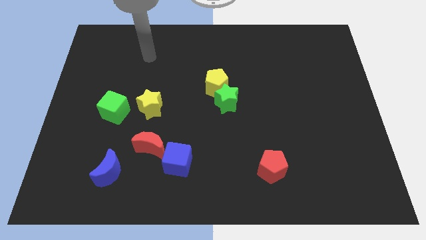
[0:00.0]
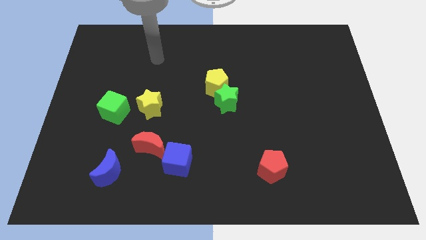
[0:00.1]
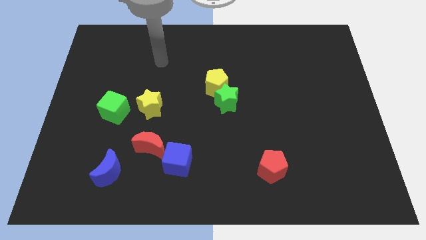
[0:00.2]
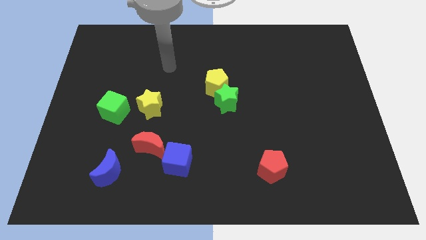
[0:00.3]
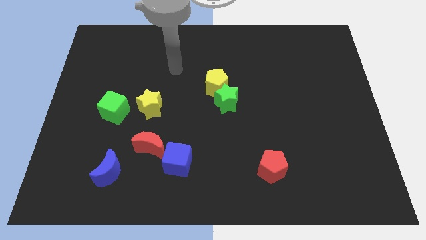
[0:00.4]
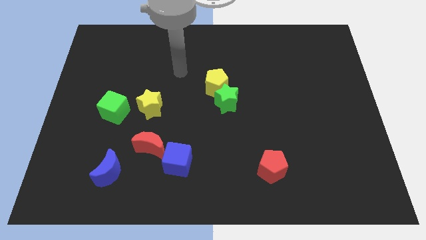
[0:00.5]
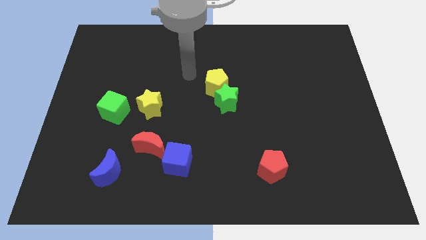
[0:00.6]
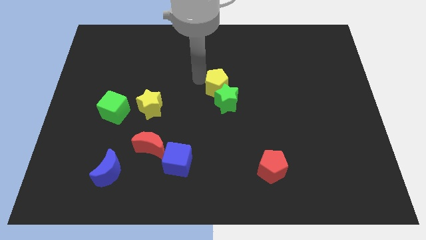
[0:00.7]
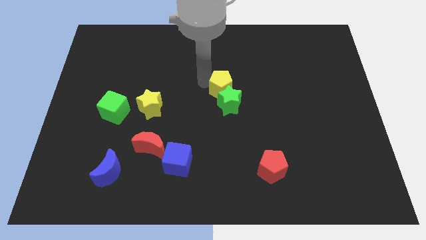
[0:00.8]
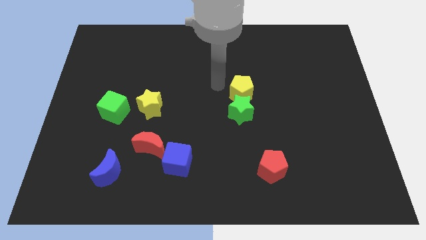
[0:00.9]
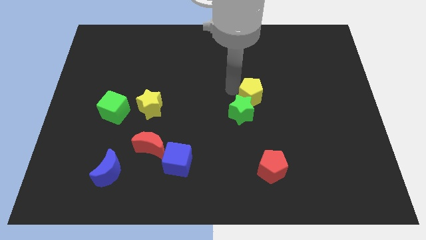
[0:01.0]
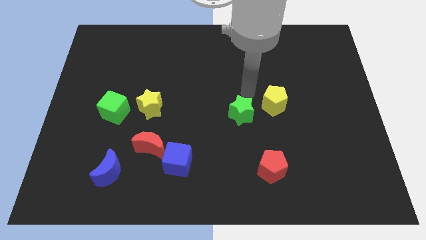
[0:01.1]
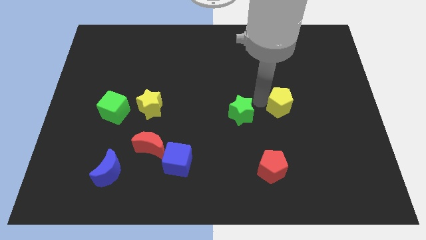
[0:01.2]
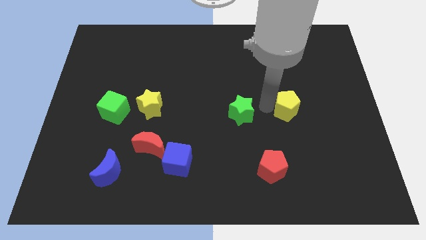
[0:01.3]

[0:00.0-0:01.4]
move the green star away from the yellow pentagon

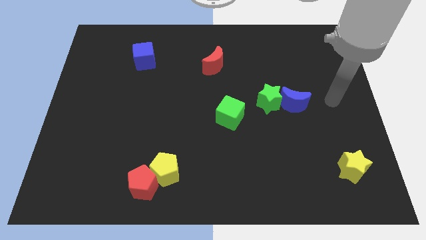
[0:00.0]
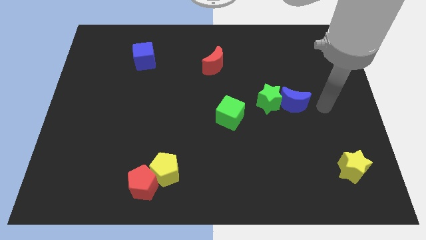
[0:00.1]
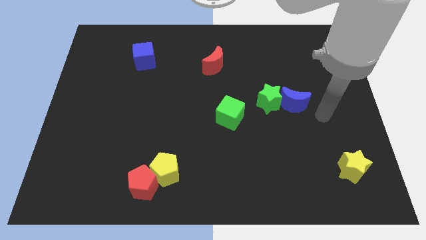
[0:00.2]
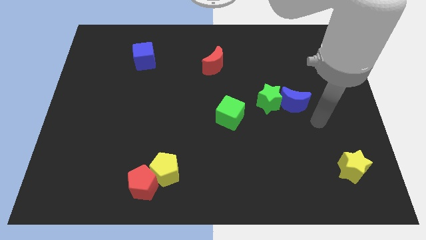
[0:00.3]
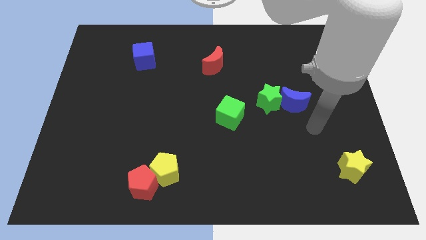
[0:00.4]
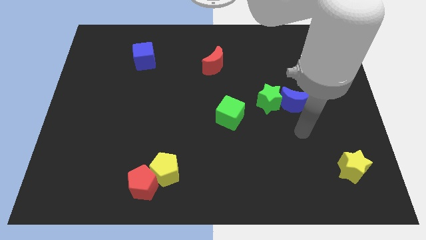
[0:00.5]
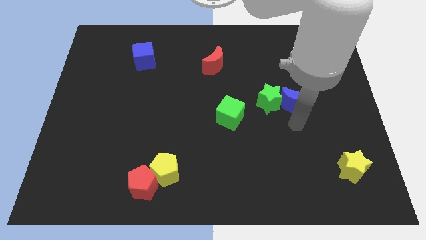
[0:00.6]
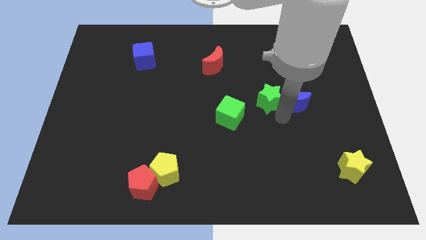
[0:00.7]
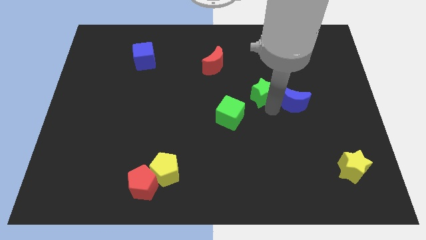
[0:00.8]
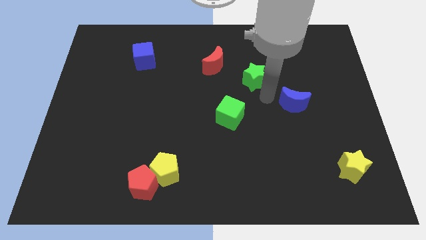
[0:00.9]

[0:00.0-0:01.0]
pull the blue moon apart from the green star

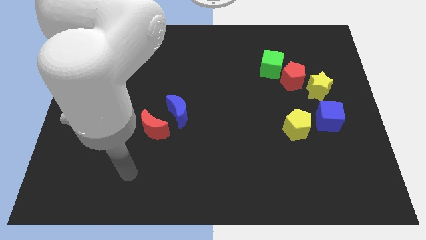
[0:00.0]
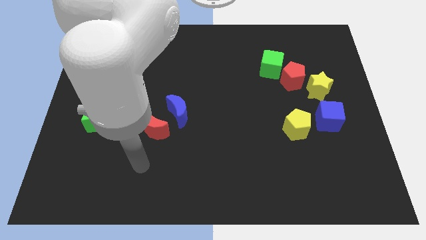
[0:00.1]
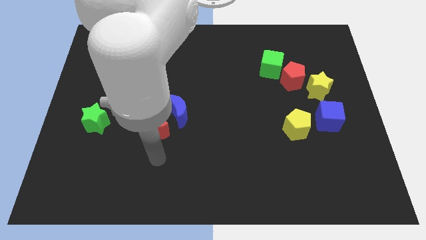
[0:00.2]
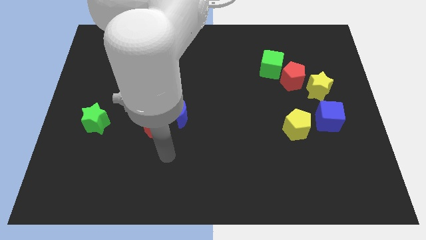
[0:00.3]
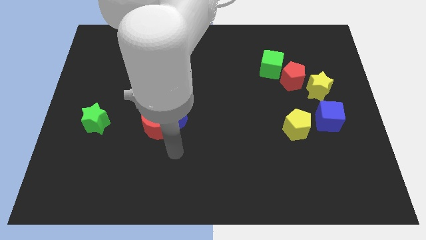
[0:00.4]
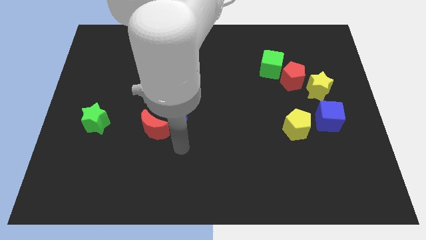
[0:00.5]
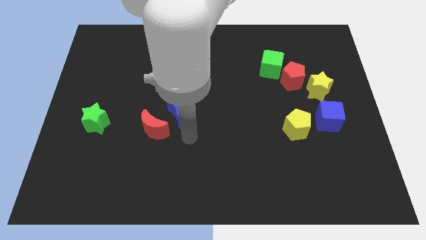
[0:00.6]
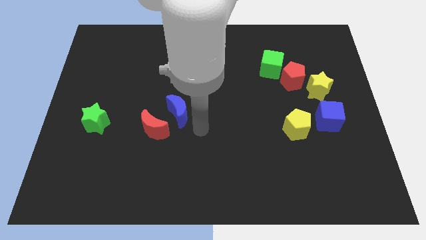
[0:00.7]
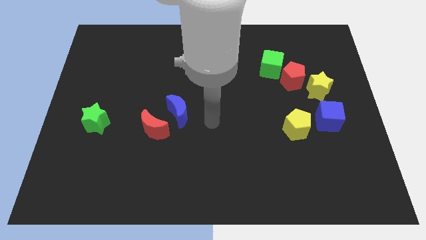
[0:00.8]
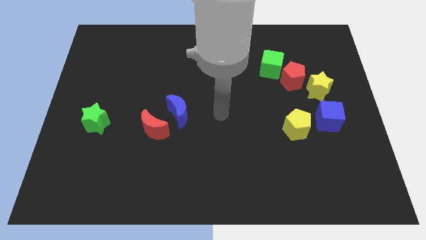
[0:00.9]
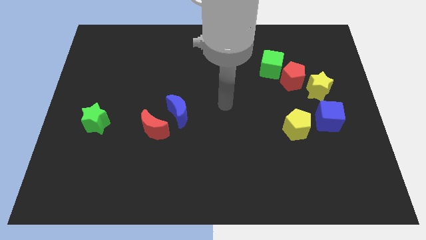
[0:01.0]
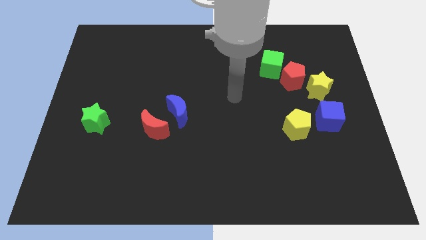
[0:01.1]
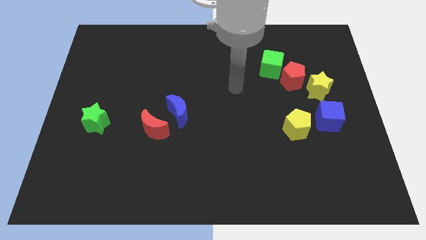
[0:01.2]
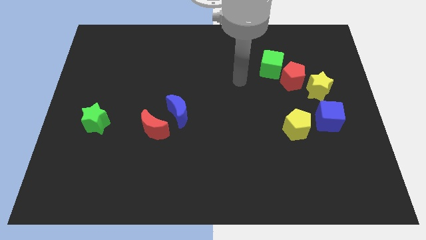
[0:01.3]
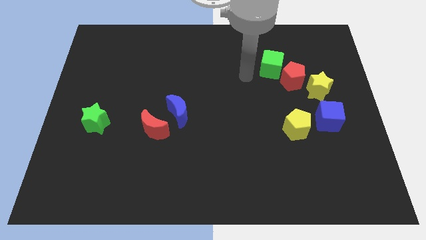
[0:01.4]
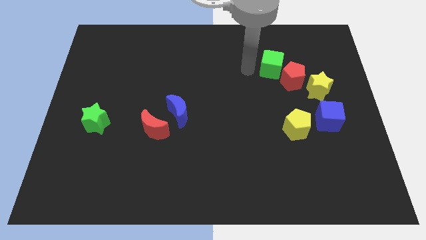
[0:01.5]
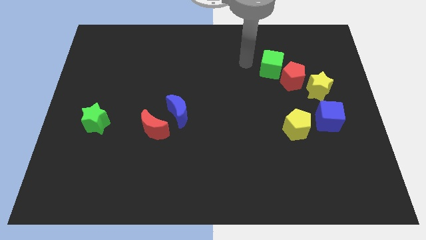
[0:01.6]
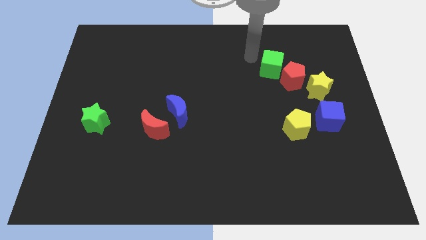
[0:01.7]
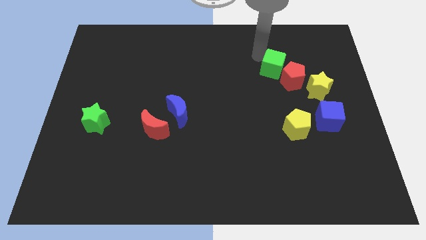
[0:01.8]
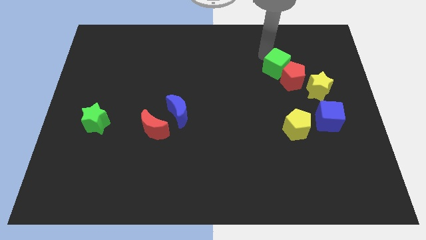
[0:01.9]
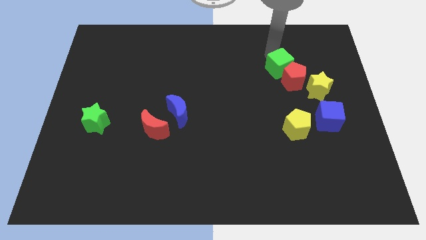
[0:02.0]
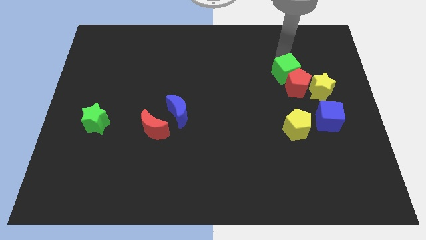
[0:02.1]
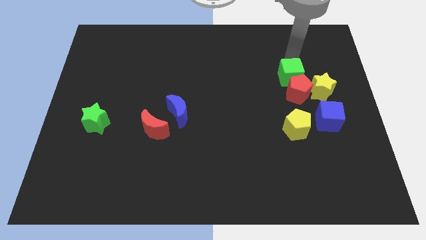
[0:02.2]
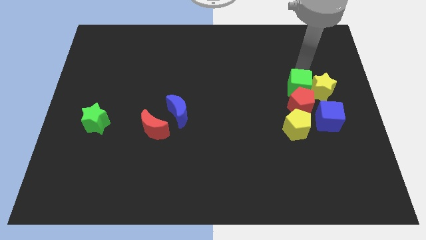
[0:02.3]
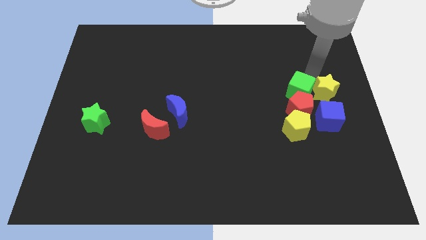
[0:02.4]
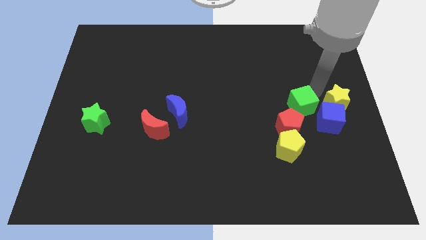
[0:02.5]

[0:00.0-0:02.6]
separate the red pentagon from the yellow star and green cube

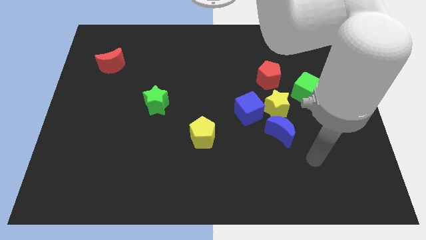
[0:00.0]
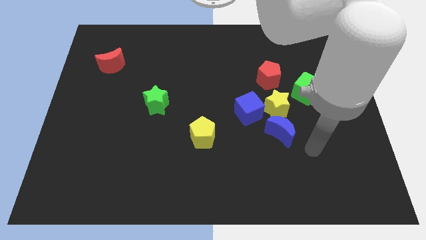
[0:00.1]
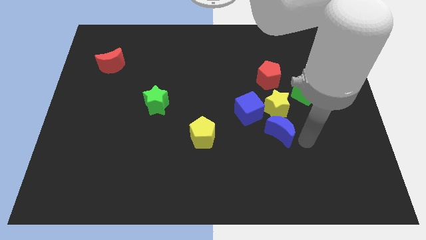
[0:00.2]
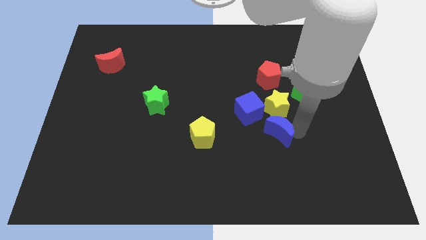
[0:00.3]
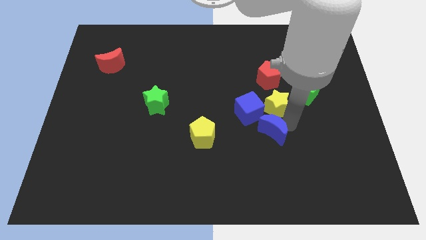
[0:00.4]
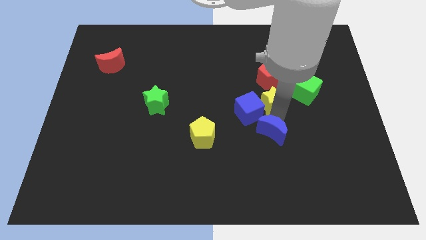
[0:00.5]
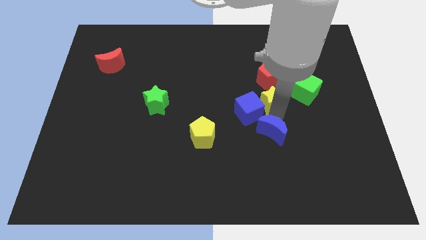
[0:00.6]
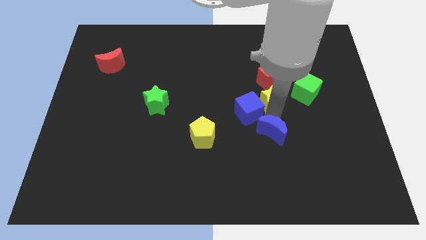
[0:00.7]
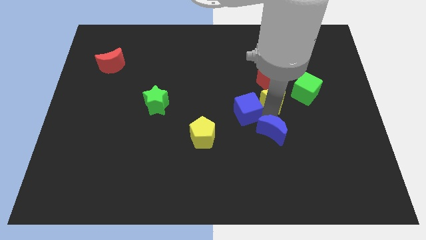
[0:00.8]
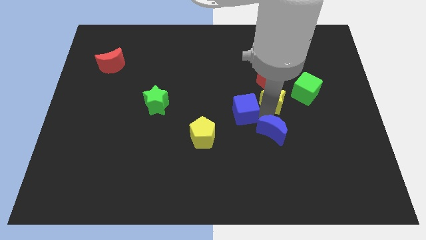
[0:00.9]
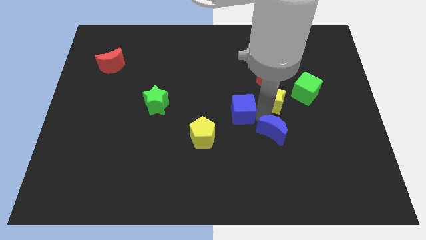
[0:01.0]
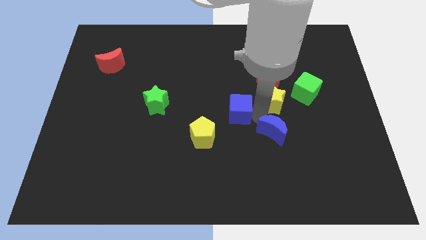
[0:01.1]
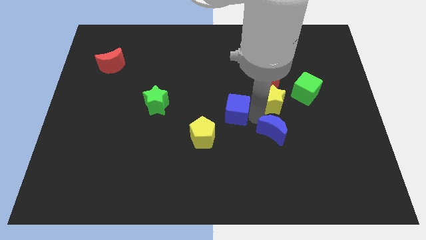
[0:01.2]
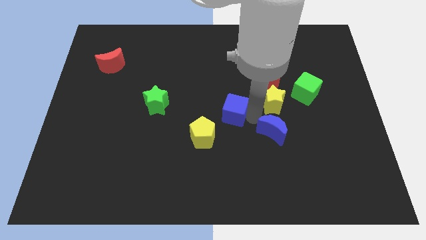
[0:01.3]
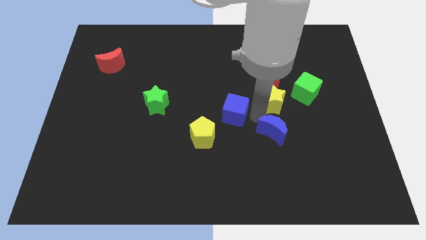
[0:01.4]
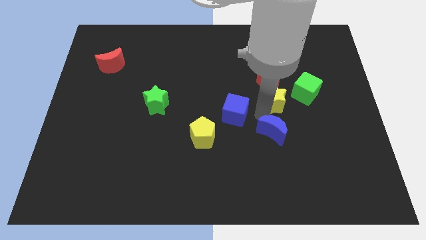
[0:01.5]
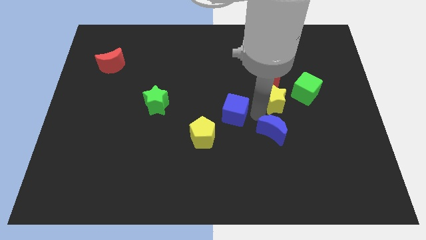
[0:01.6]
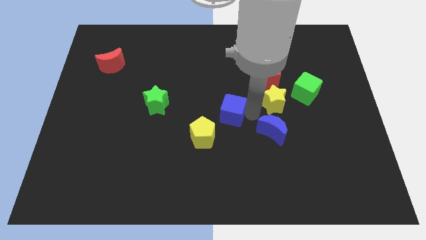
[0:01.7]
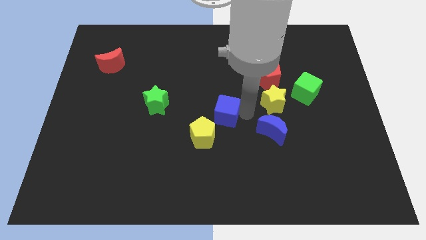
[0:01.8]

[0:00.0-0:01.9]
pull the blue cube apart from the yellow star and blue moon

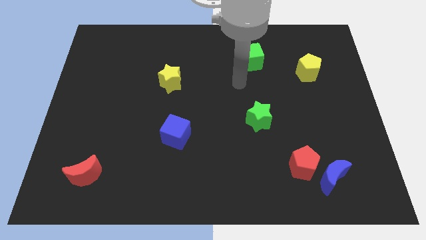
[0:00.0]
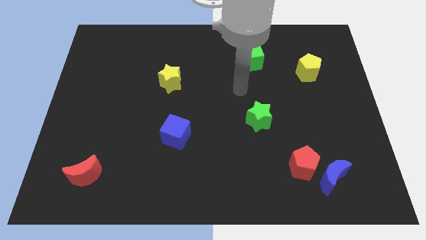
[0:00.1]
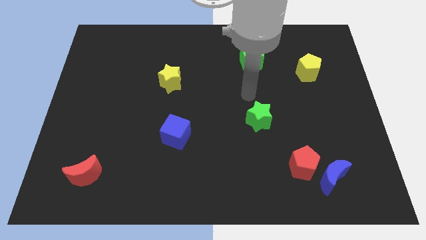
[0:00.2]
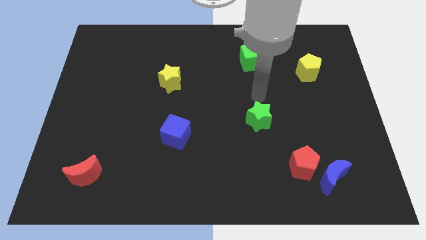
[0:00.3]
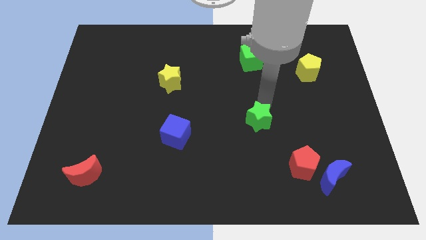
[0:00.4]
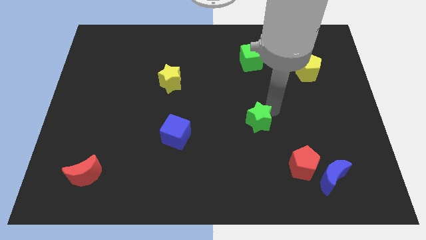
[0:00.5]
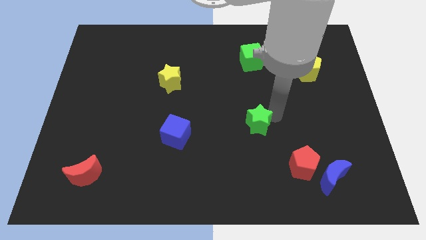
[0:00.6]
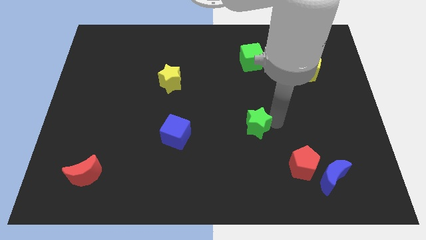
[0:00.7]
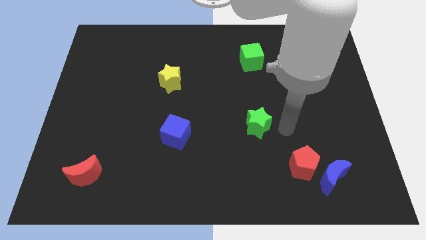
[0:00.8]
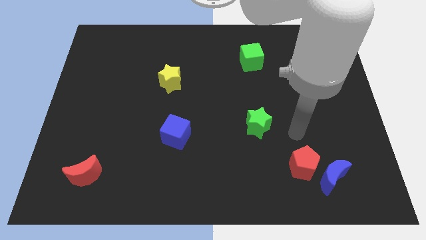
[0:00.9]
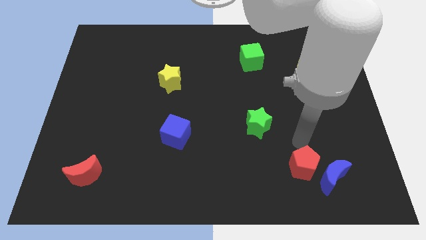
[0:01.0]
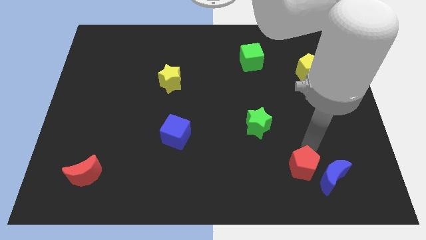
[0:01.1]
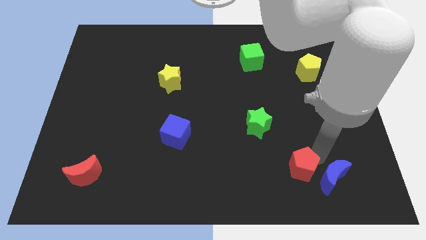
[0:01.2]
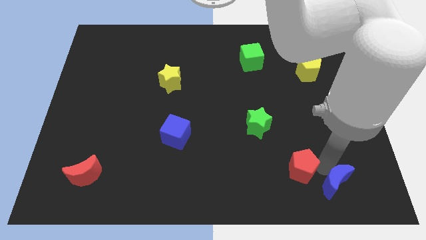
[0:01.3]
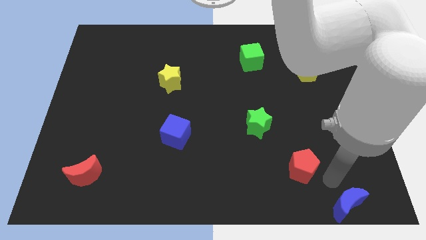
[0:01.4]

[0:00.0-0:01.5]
pull the red pentagon apart from the blue moon

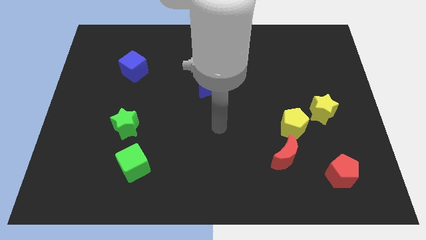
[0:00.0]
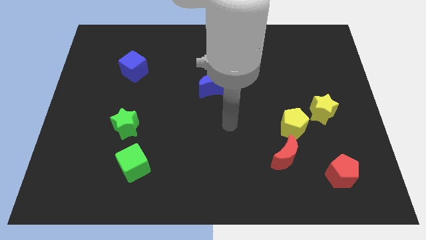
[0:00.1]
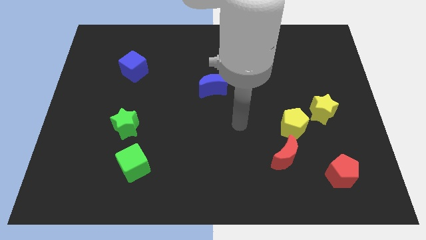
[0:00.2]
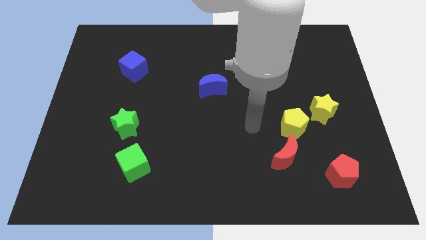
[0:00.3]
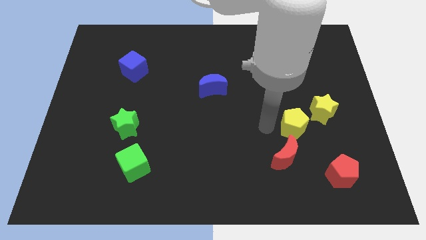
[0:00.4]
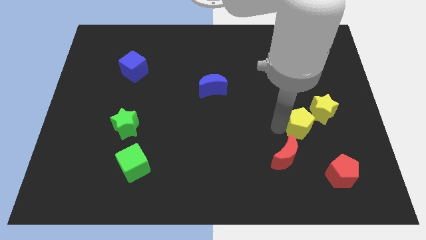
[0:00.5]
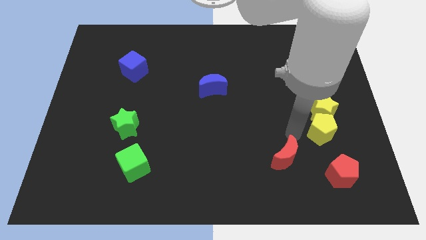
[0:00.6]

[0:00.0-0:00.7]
pull the red moon apart from the yellow pentagon
